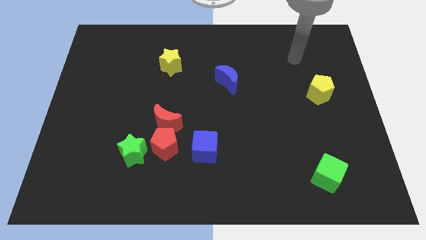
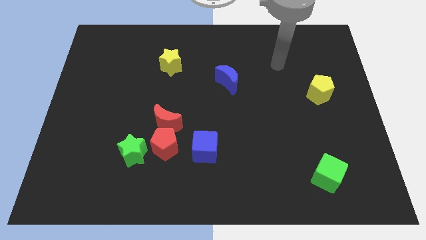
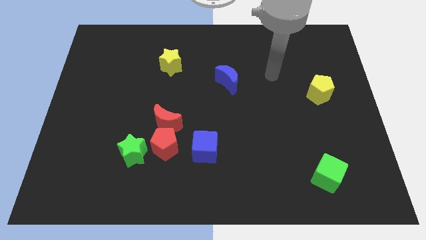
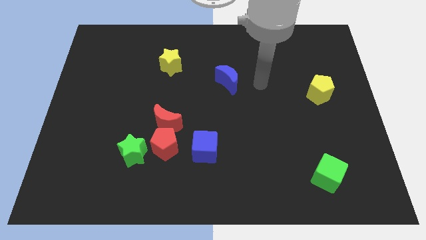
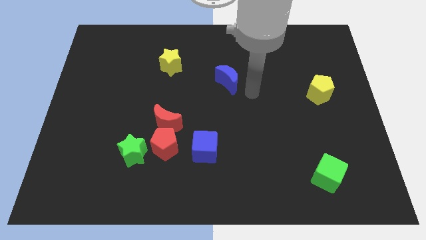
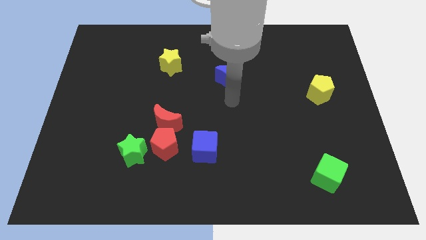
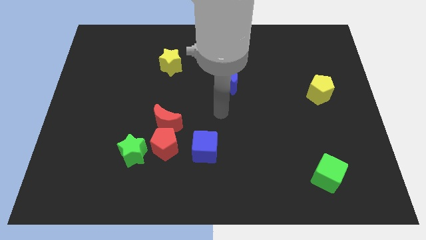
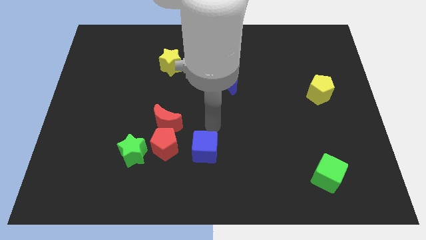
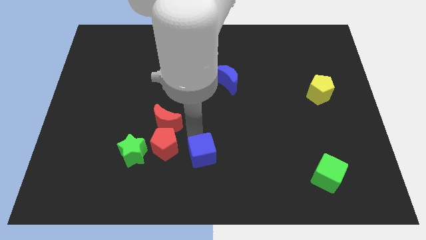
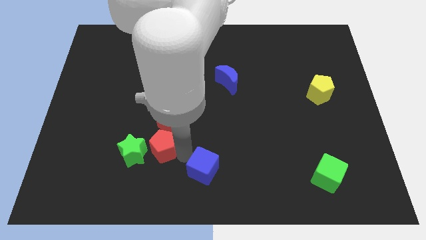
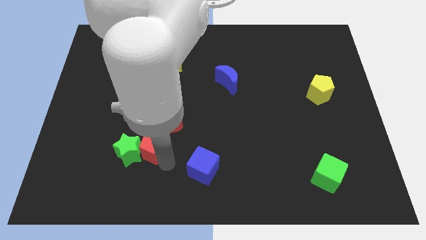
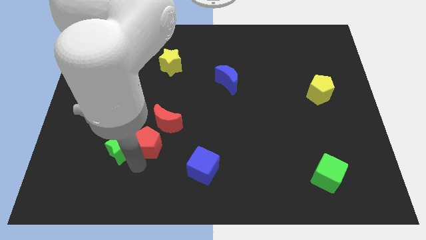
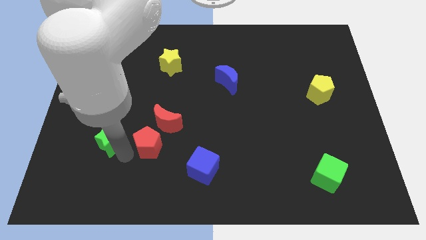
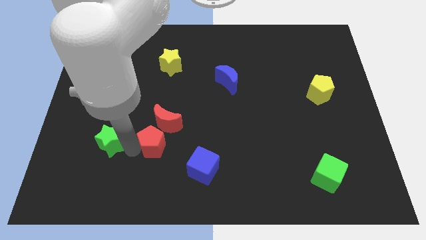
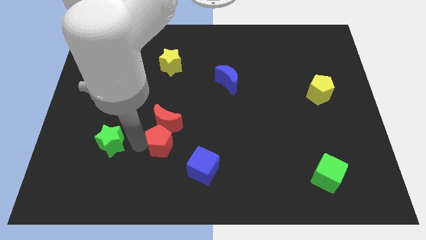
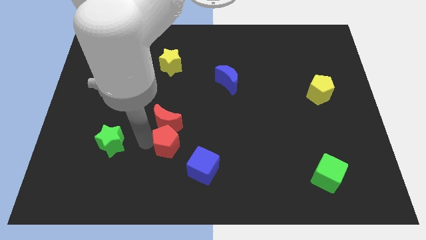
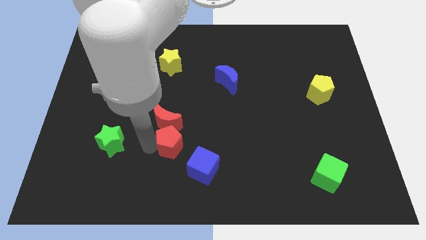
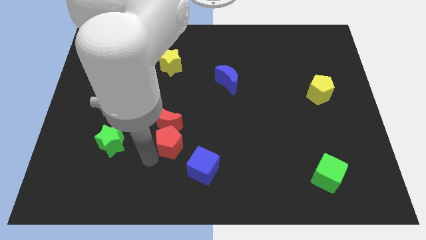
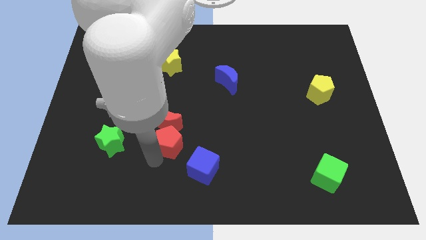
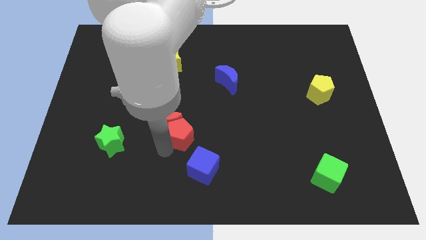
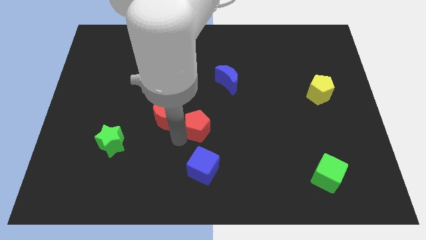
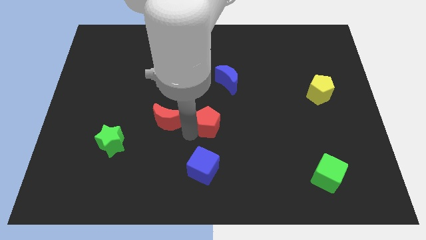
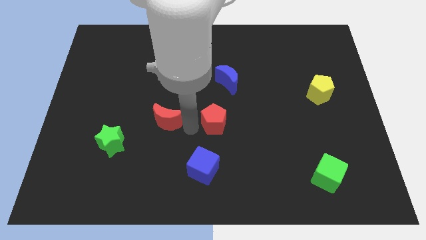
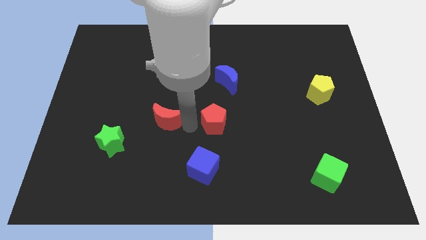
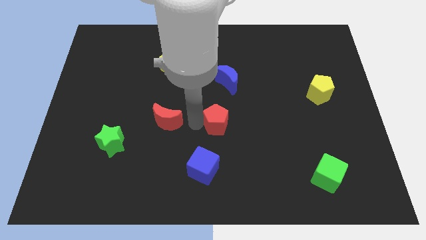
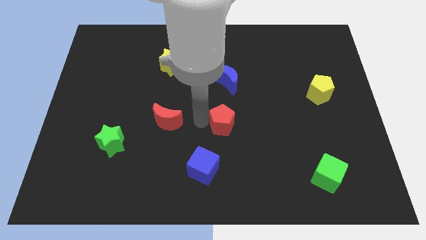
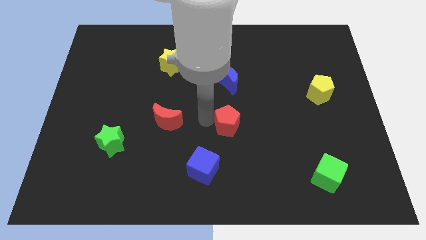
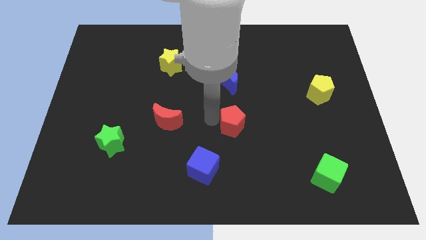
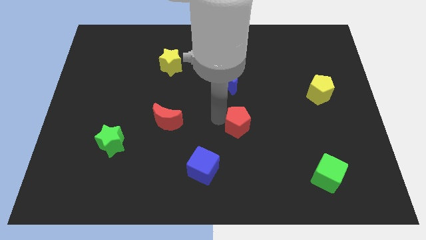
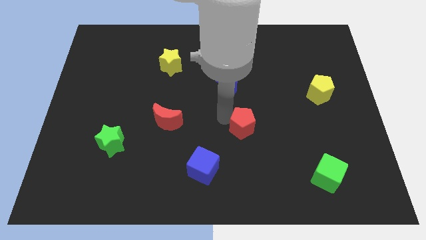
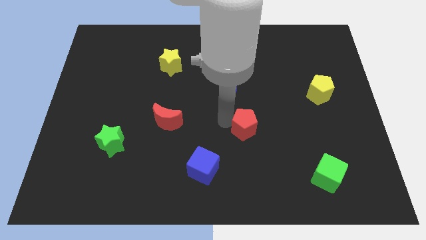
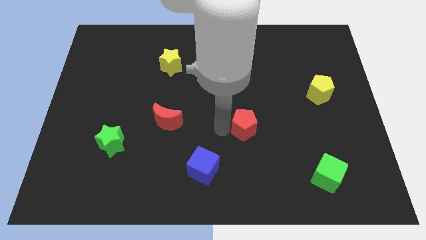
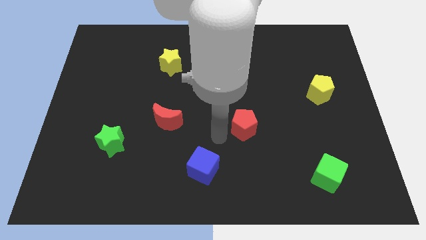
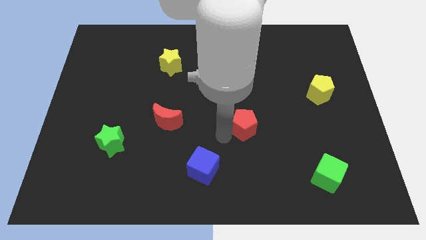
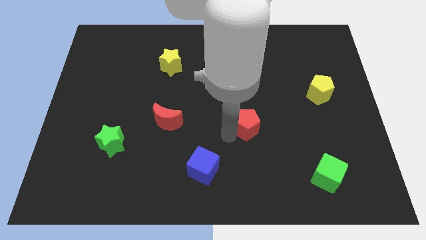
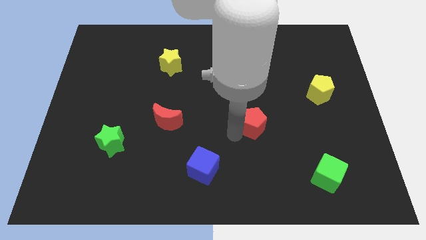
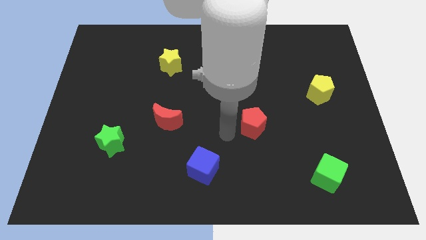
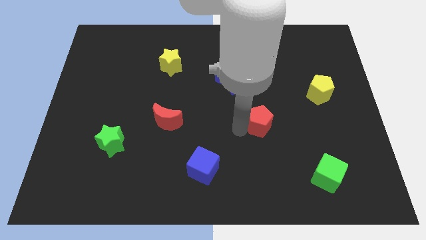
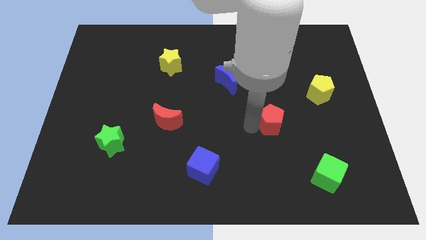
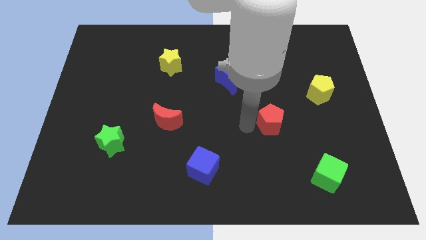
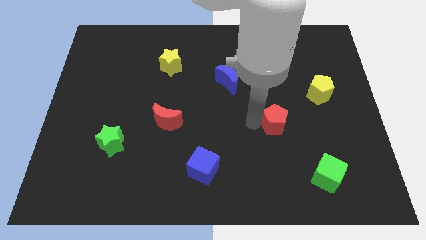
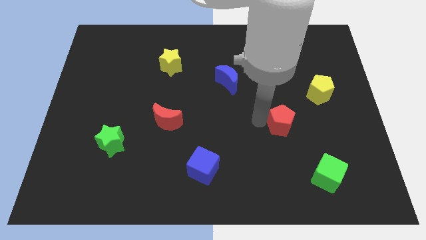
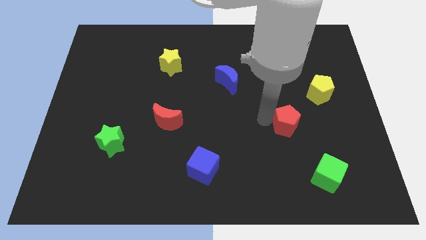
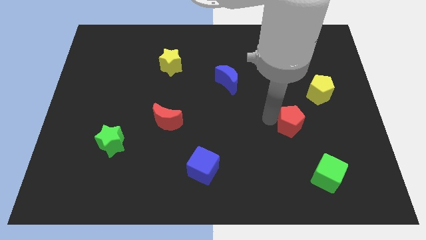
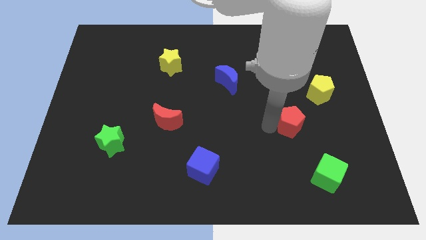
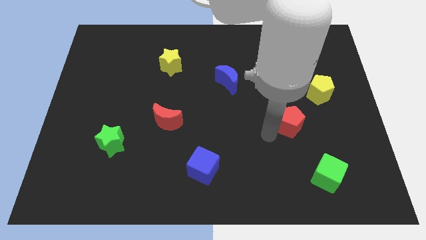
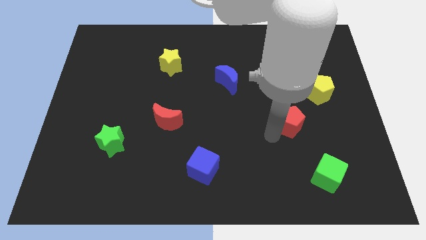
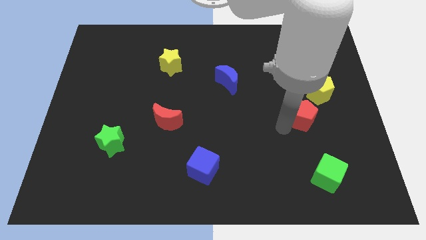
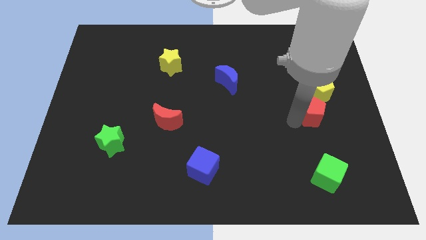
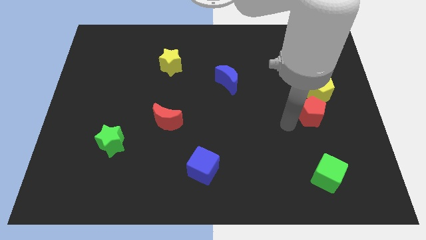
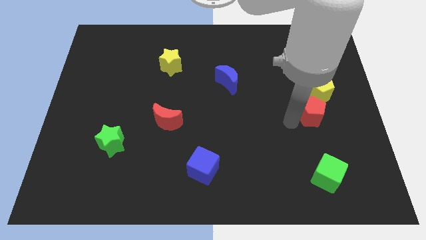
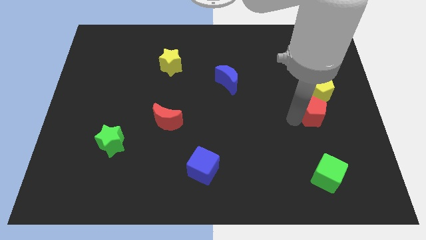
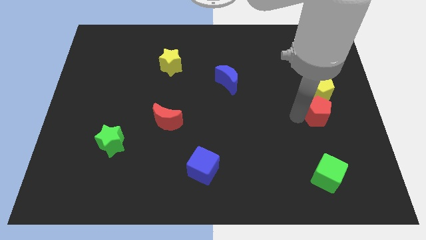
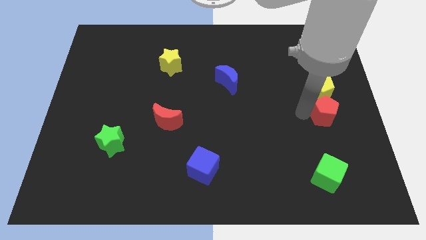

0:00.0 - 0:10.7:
move the red pentagon to the right side of the board

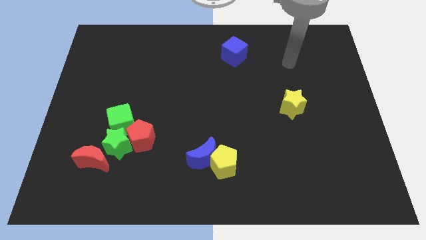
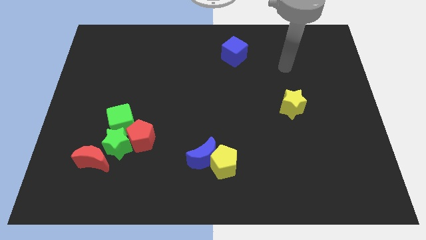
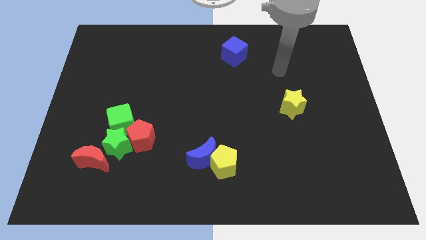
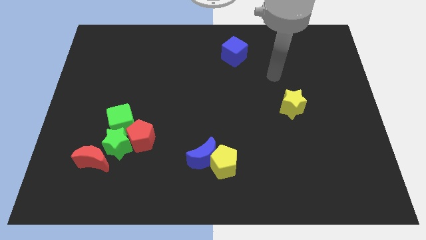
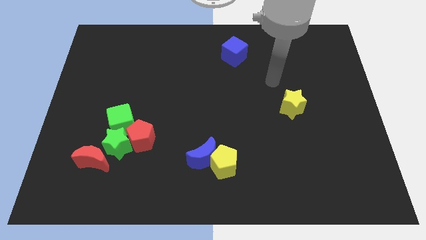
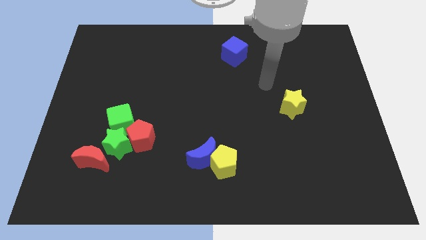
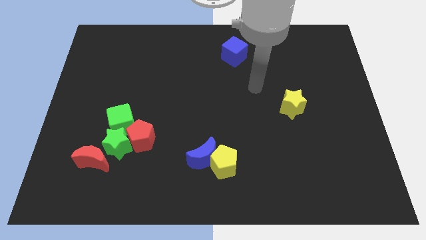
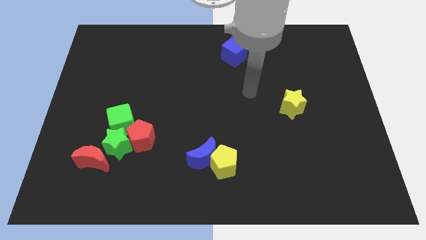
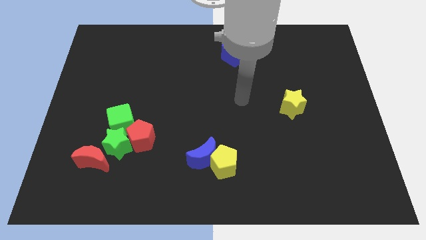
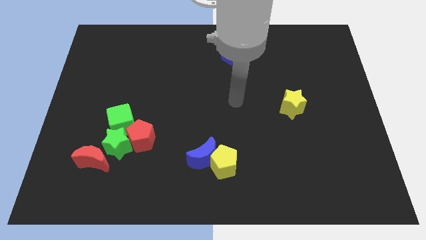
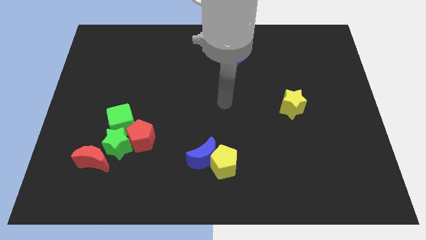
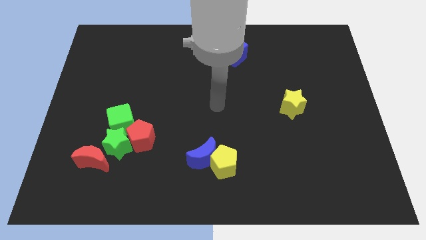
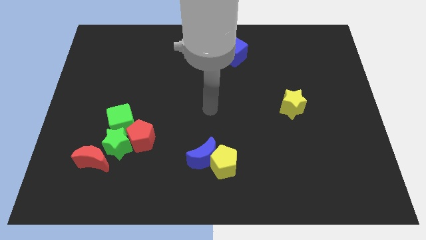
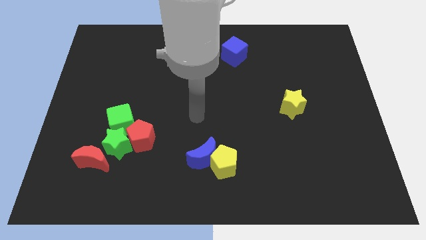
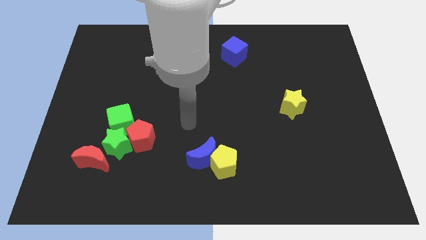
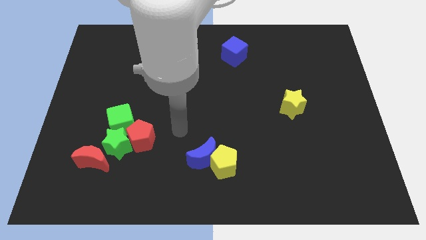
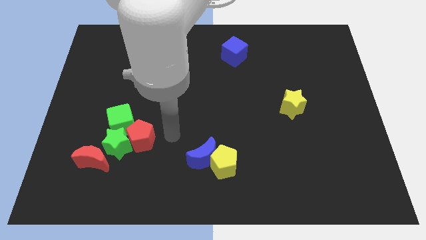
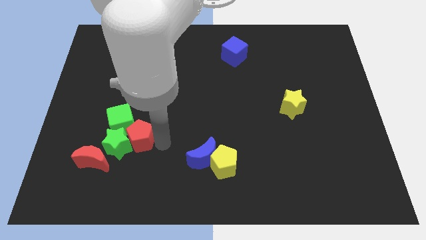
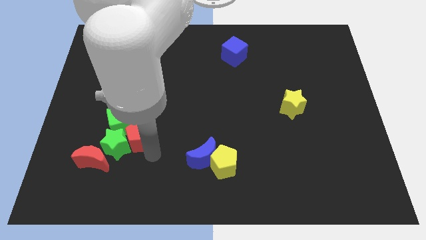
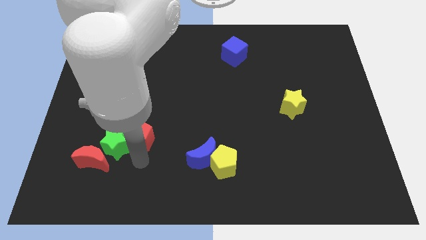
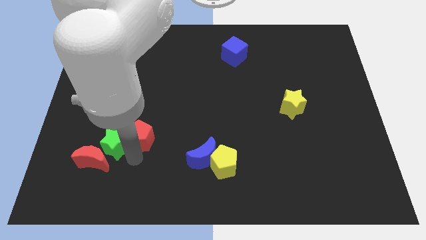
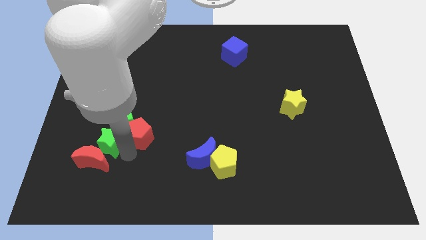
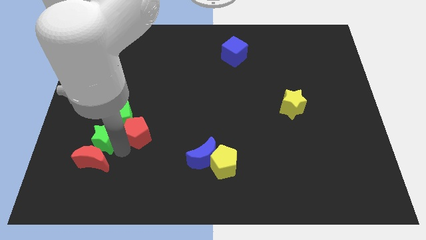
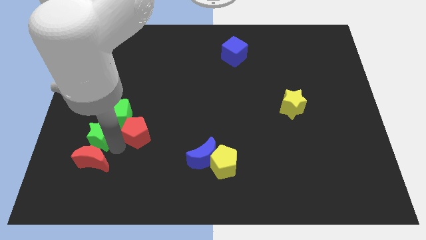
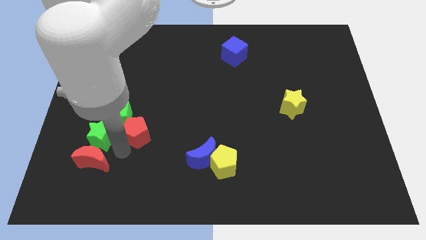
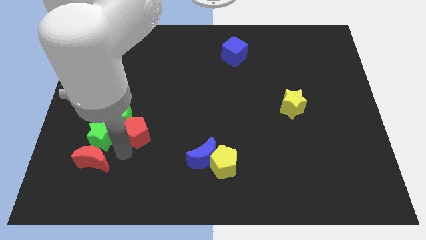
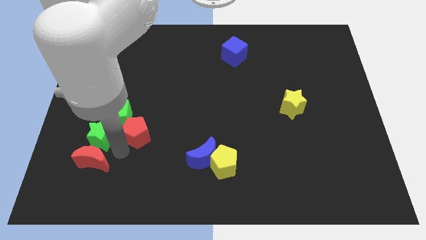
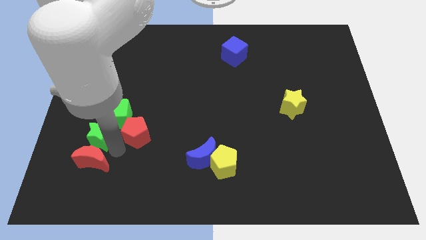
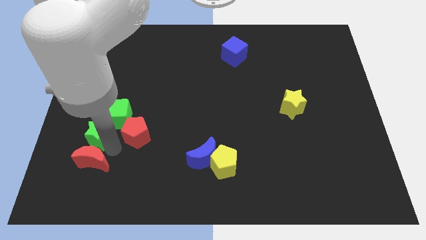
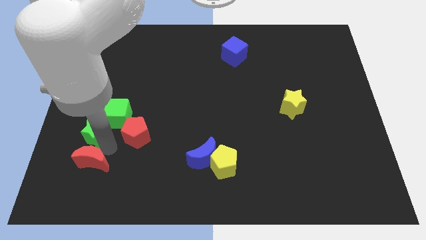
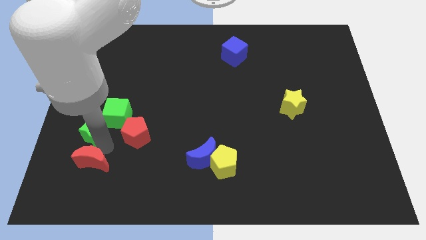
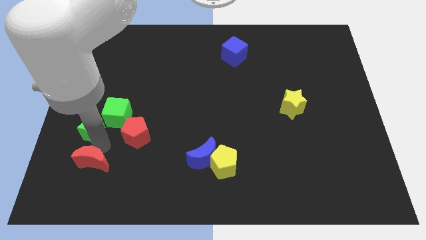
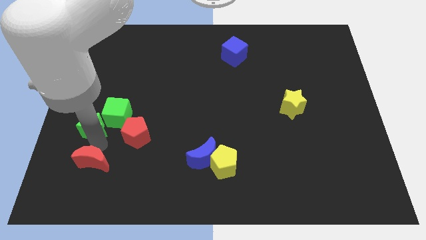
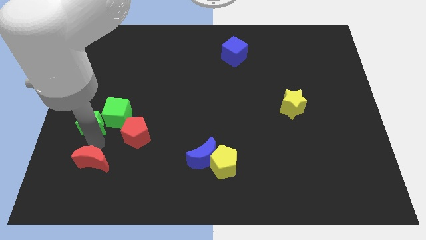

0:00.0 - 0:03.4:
put the green star to the center left
